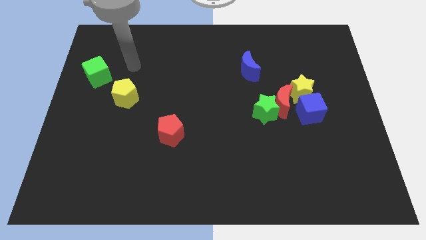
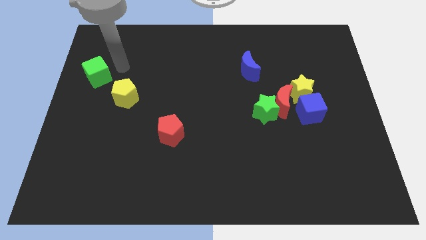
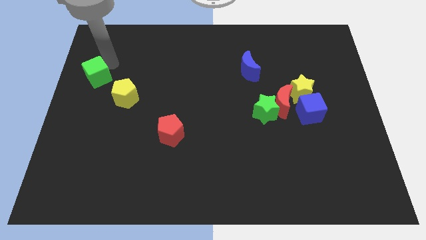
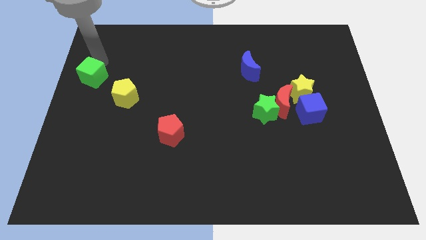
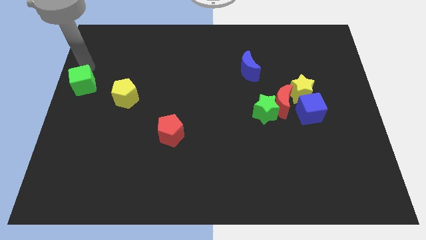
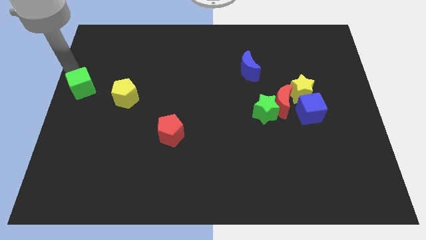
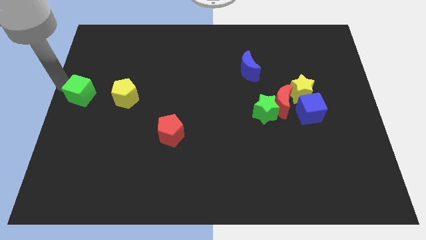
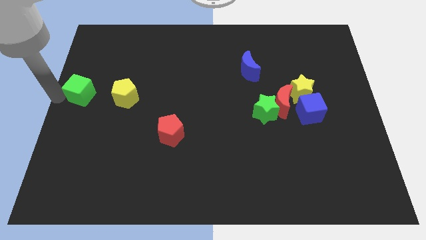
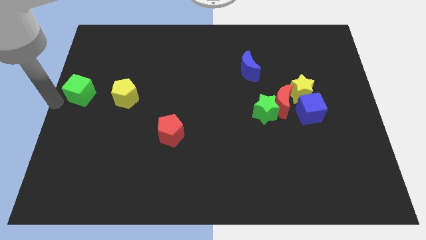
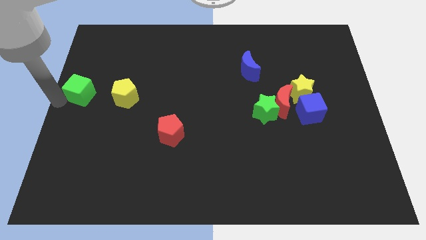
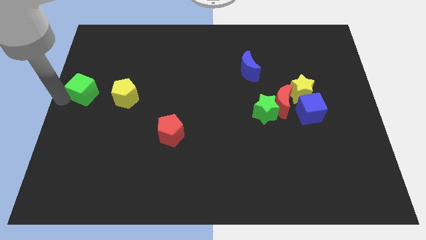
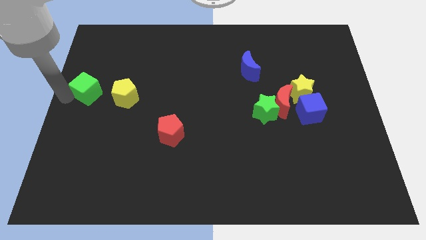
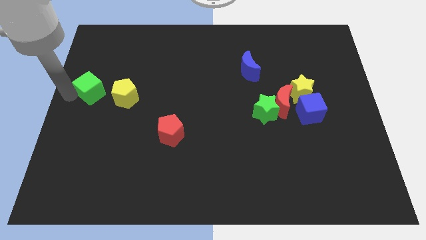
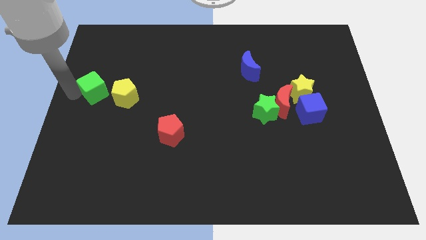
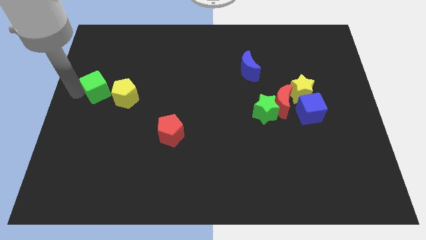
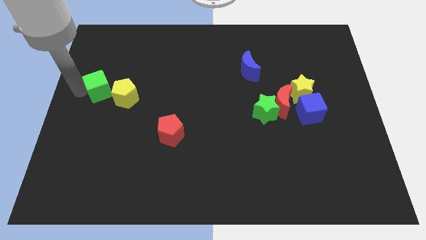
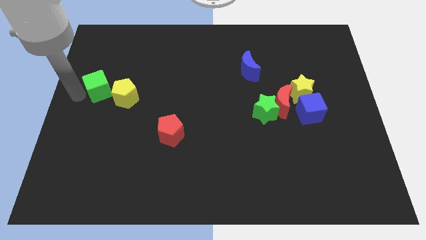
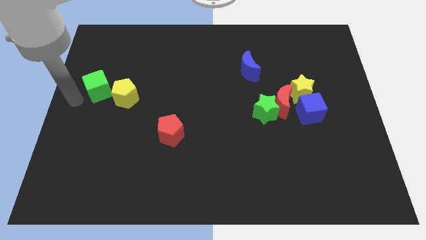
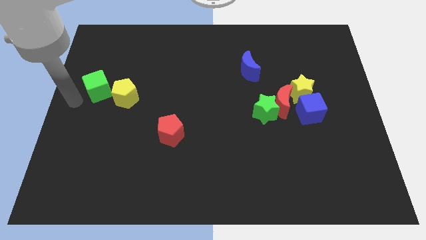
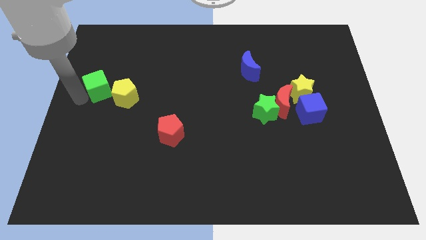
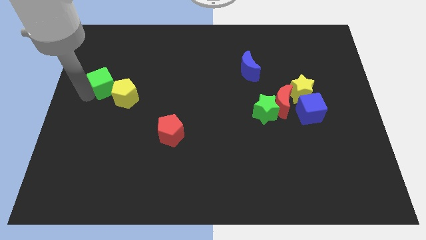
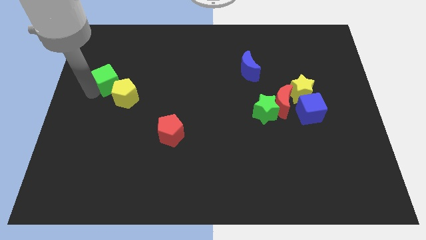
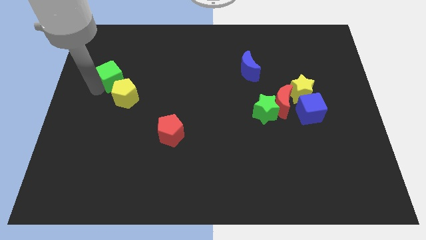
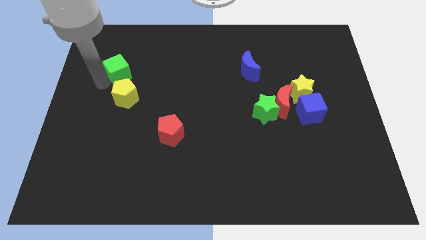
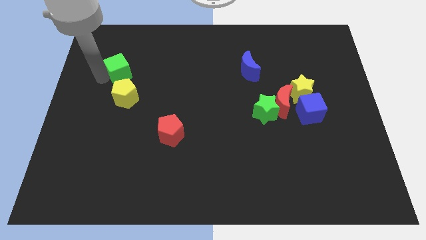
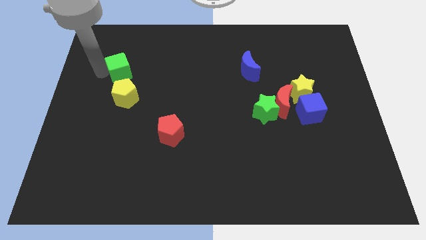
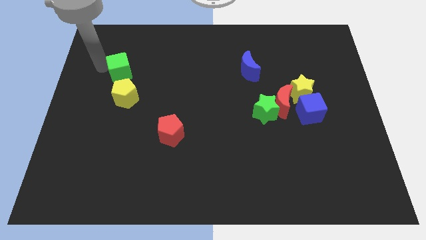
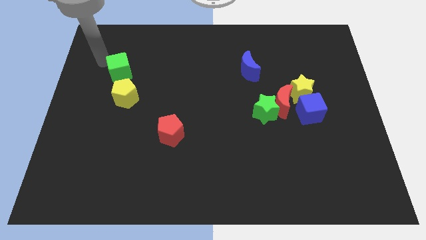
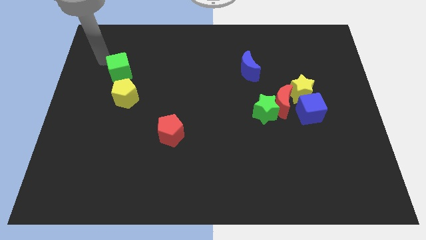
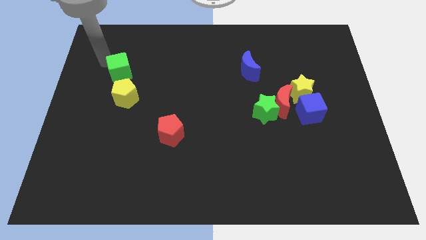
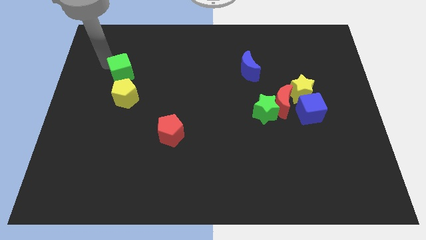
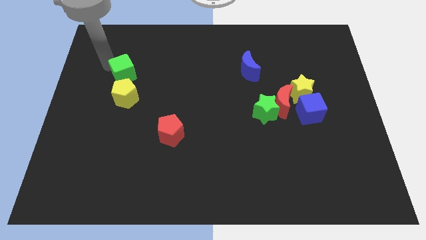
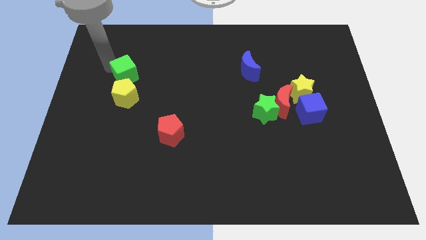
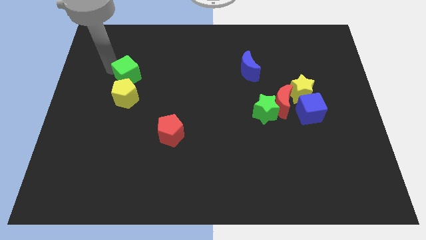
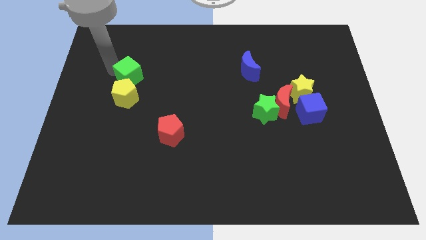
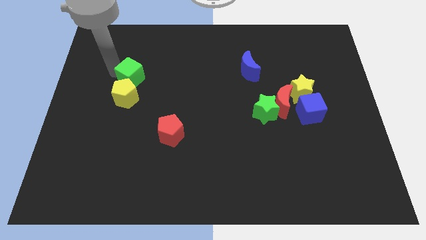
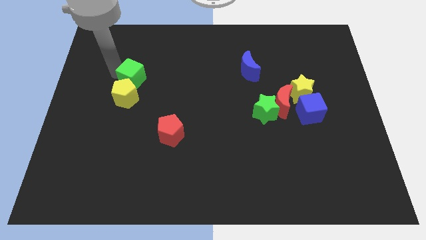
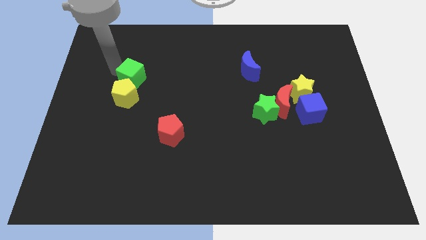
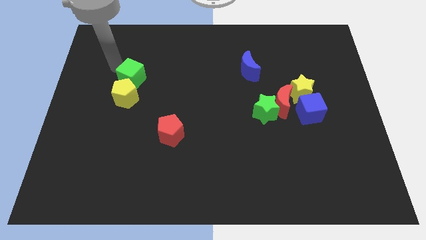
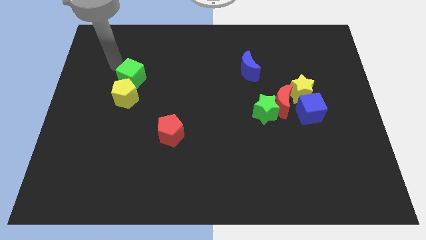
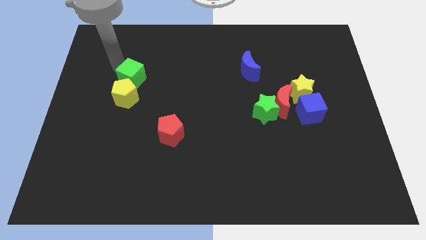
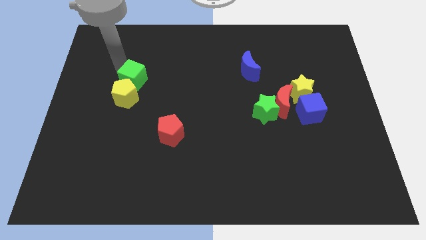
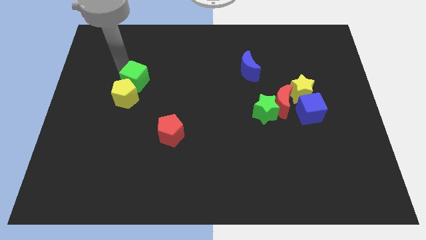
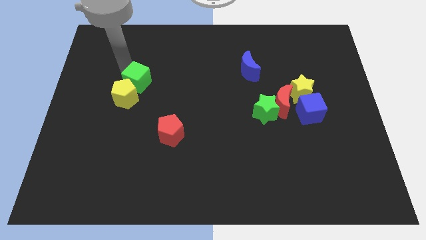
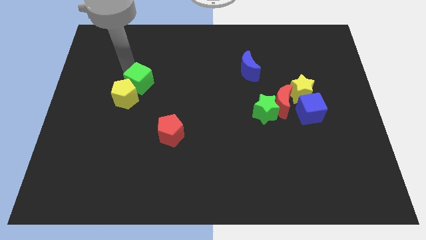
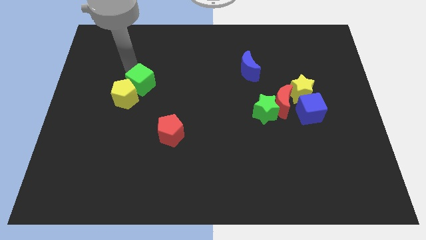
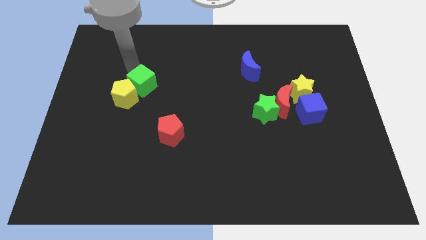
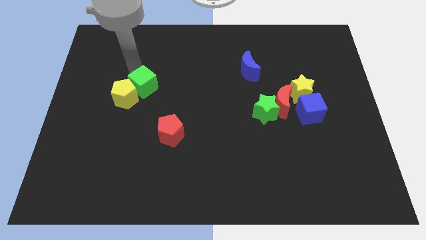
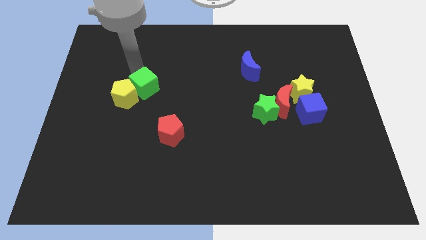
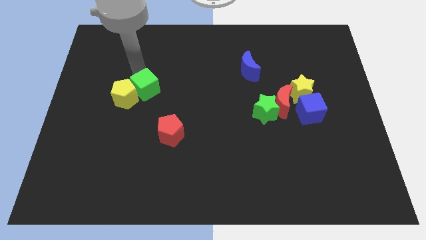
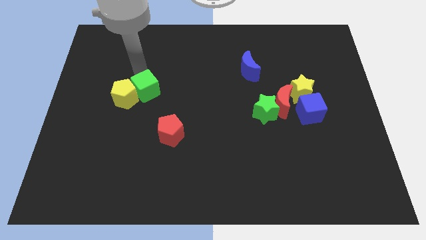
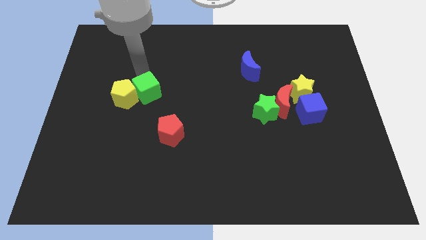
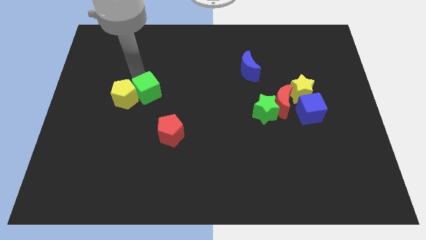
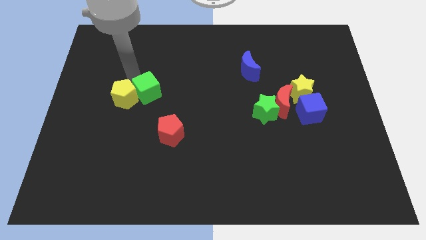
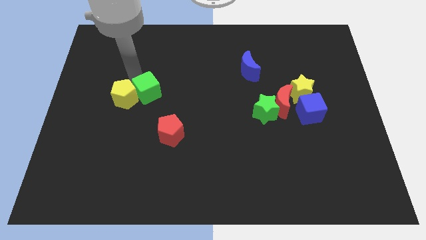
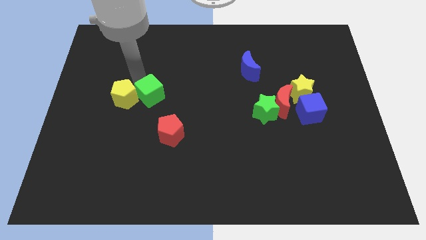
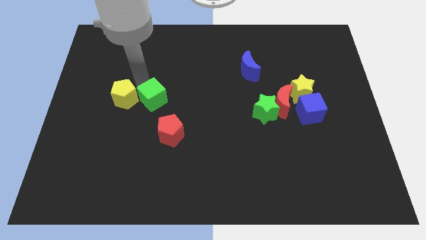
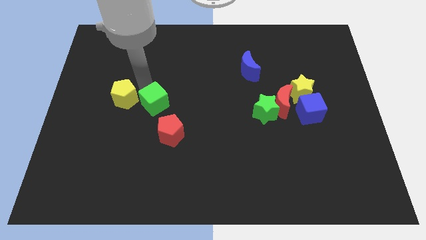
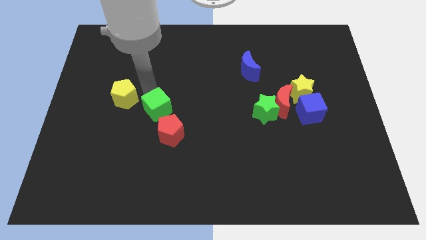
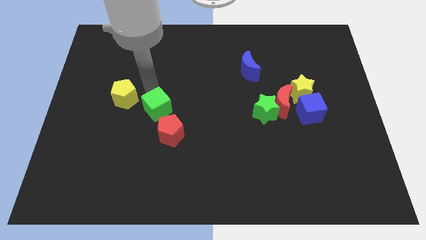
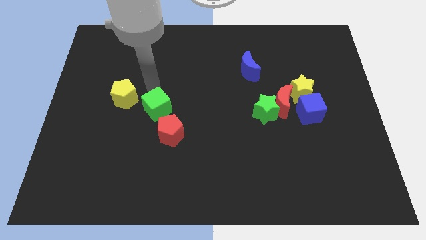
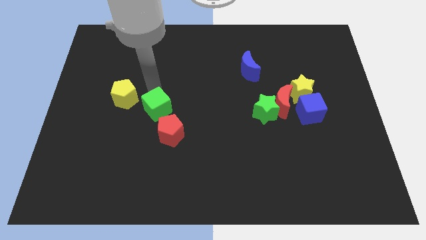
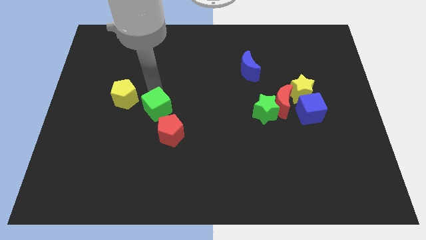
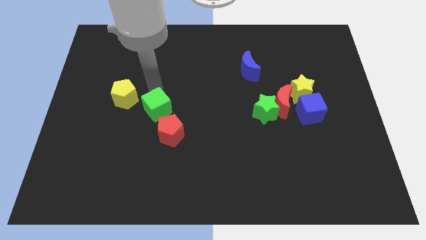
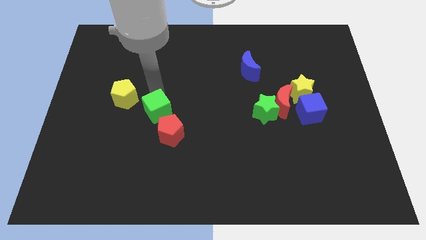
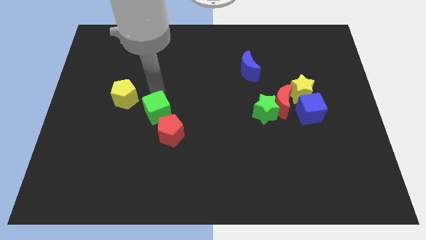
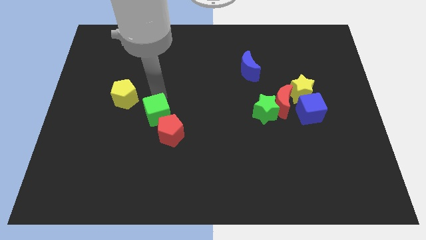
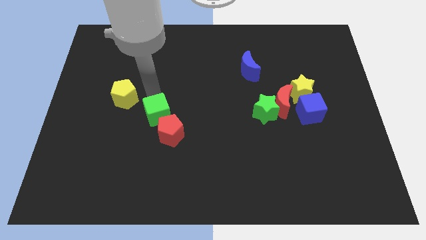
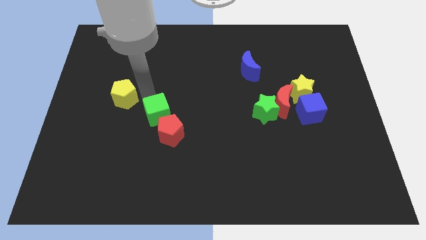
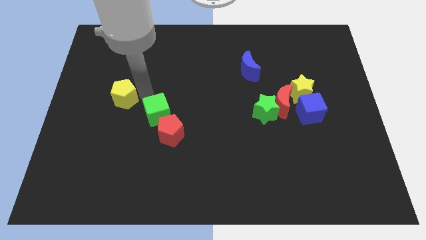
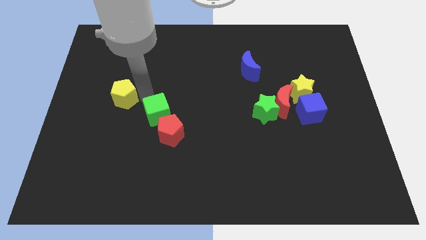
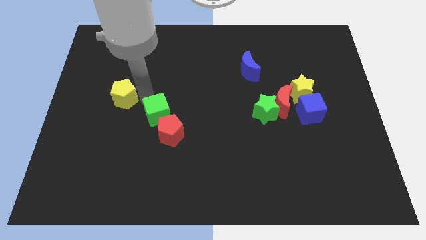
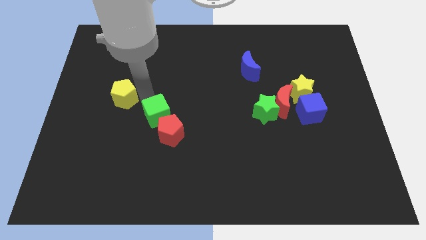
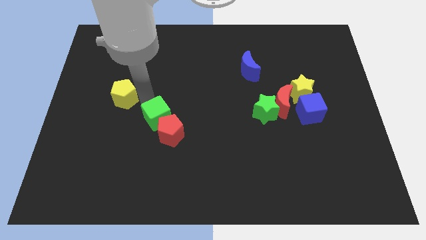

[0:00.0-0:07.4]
push the green cube next to the red pentagon
